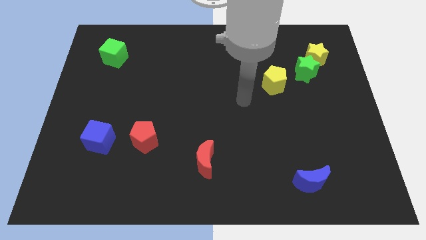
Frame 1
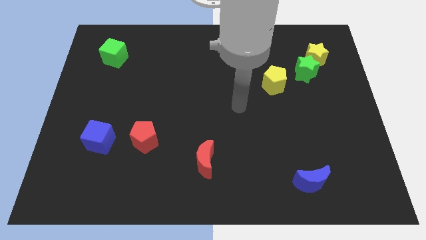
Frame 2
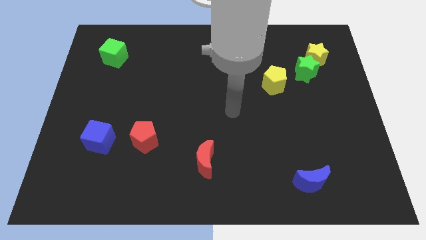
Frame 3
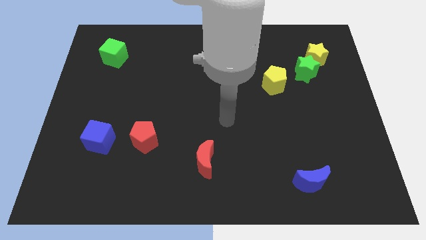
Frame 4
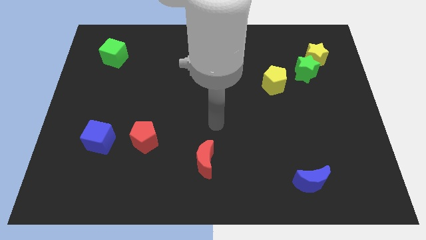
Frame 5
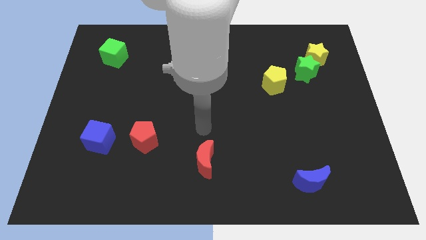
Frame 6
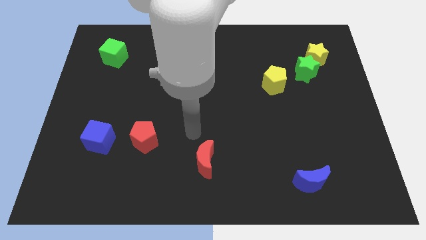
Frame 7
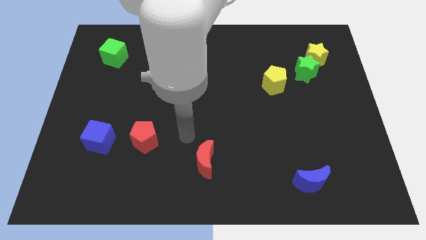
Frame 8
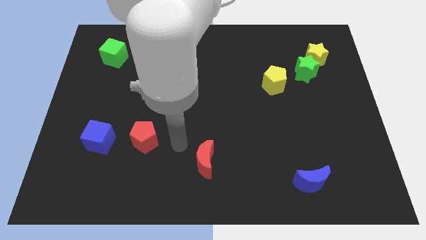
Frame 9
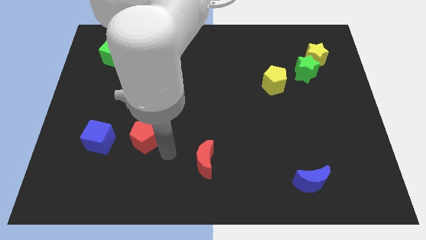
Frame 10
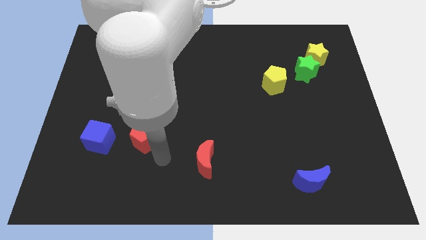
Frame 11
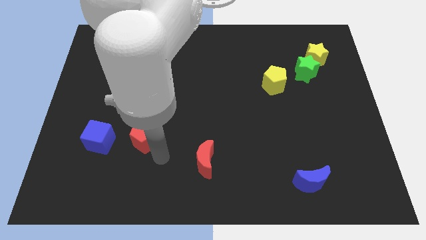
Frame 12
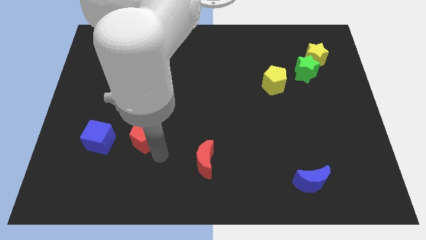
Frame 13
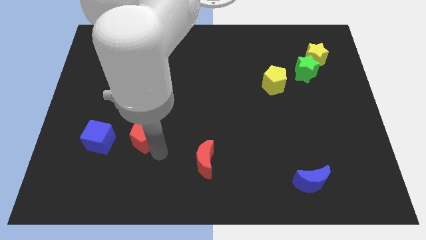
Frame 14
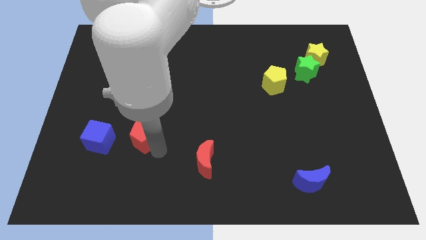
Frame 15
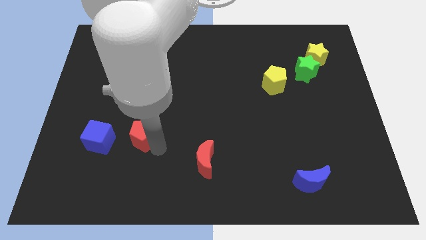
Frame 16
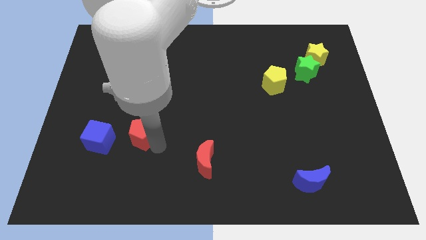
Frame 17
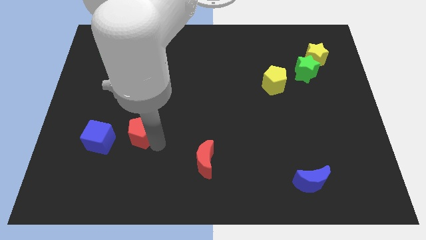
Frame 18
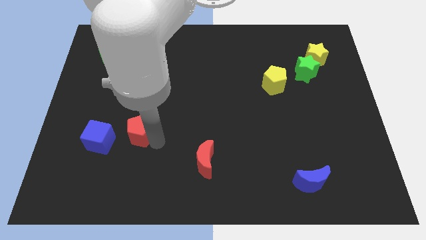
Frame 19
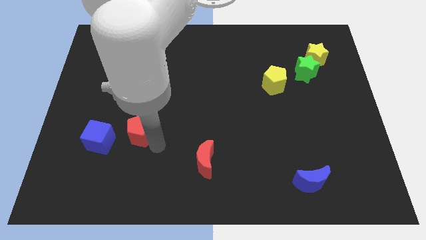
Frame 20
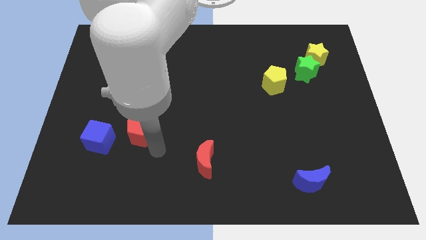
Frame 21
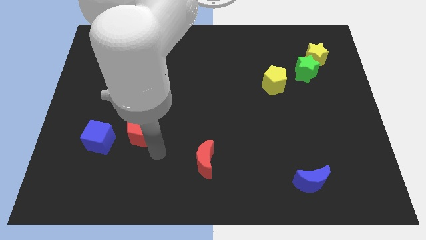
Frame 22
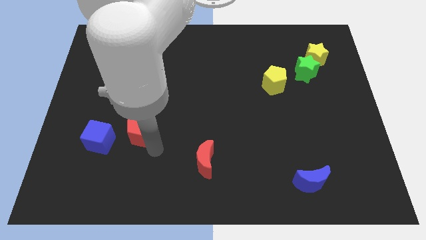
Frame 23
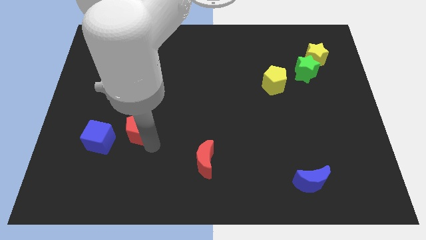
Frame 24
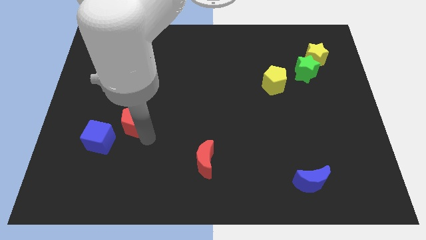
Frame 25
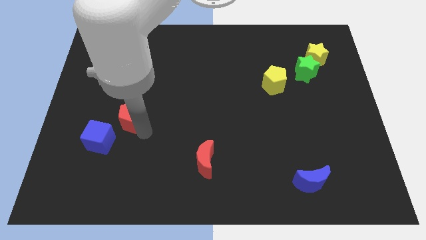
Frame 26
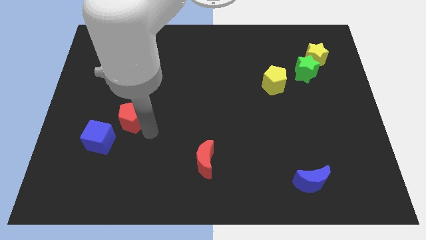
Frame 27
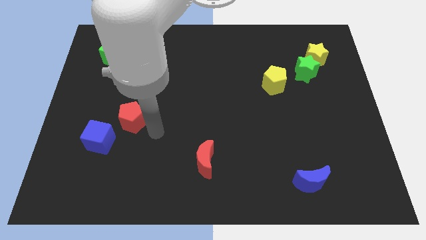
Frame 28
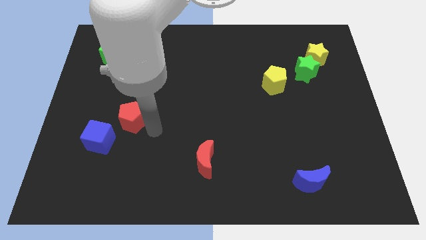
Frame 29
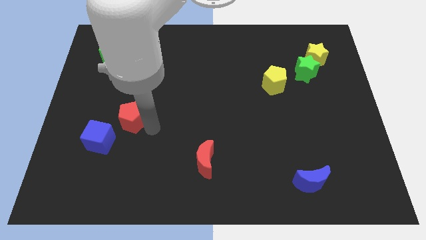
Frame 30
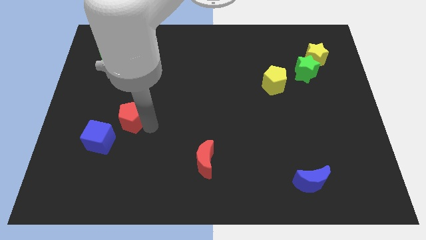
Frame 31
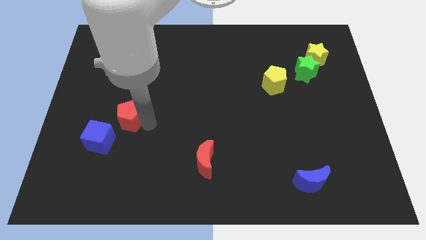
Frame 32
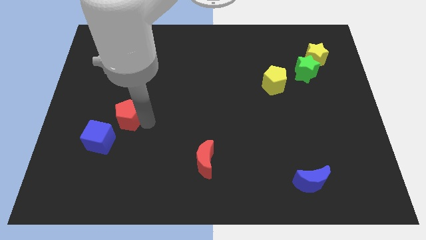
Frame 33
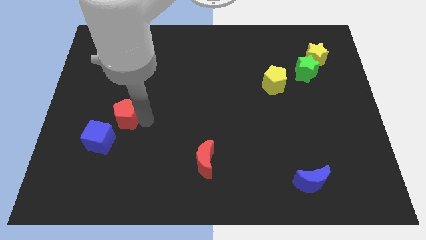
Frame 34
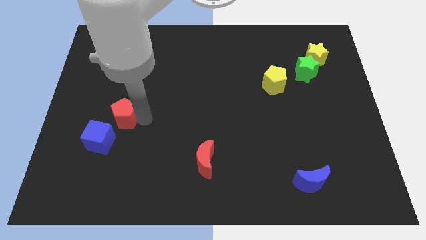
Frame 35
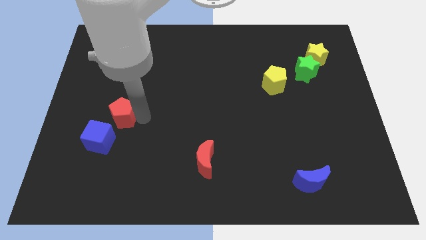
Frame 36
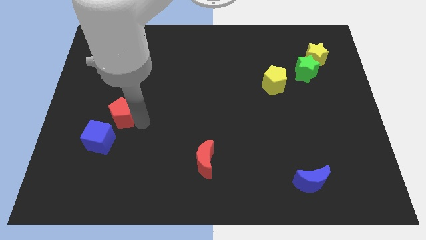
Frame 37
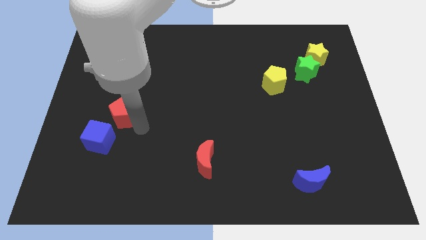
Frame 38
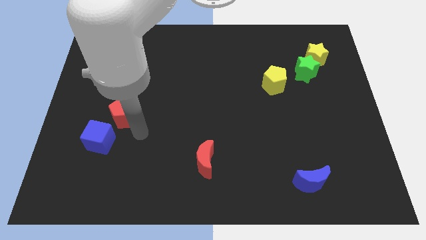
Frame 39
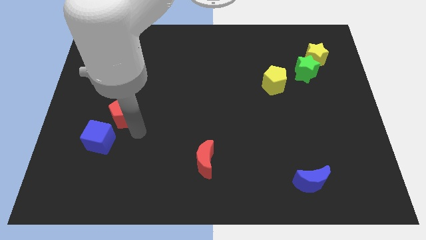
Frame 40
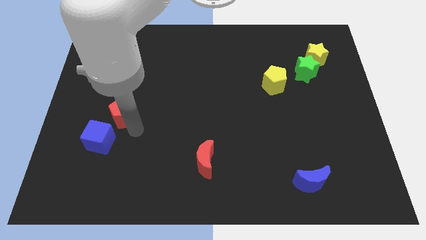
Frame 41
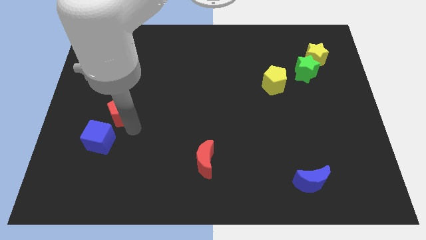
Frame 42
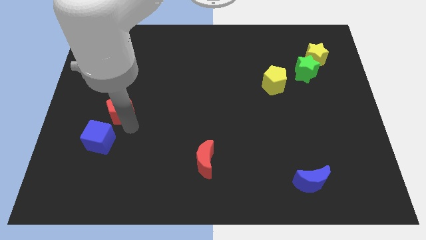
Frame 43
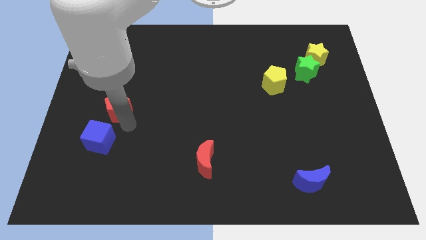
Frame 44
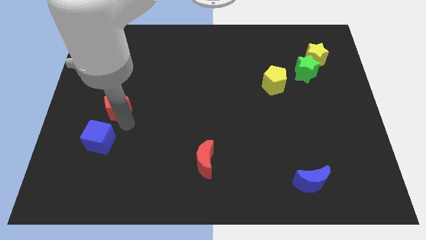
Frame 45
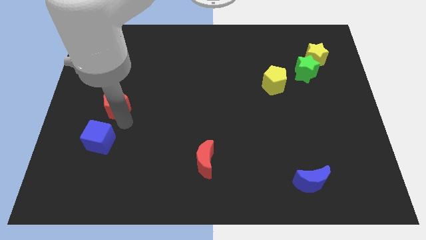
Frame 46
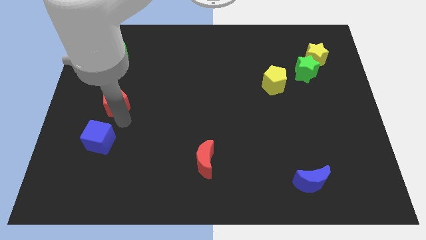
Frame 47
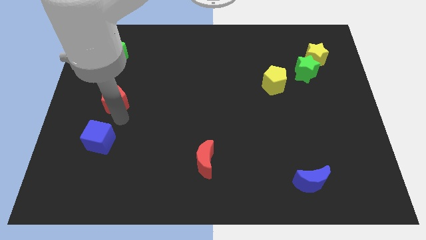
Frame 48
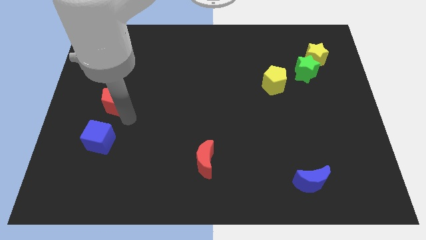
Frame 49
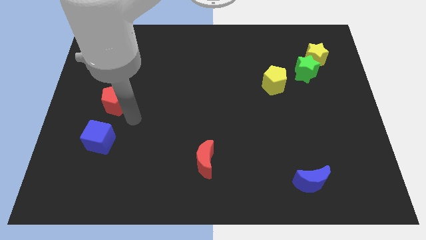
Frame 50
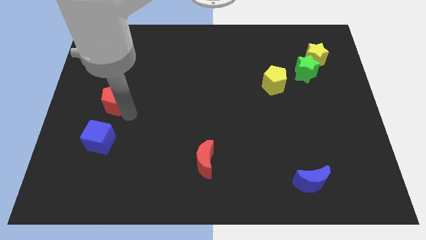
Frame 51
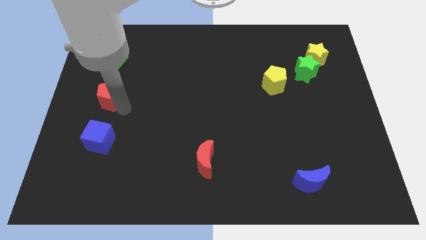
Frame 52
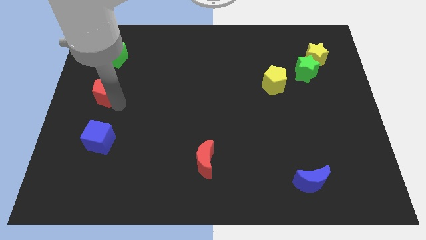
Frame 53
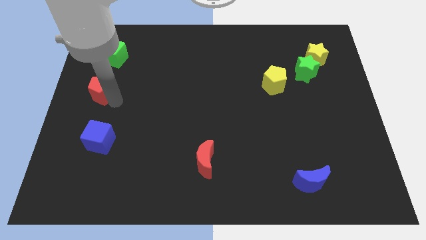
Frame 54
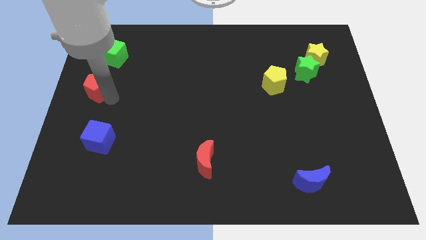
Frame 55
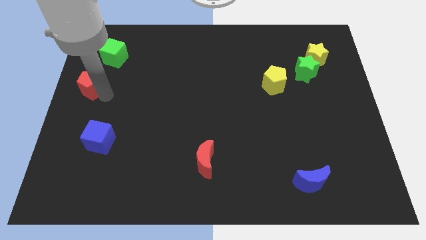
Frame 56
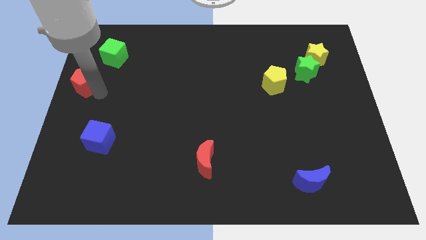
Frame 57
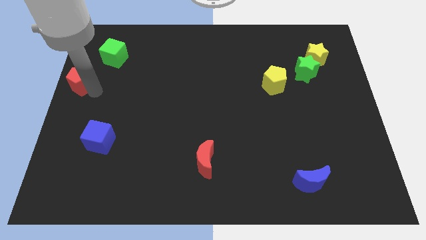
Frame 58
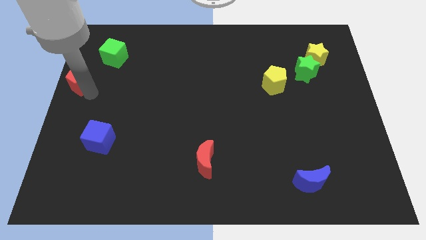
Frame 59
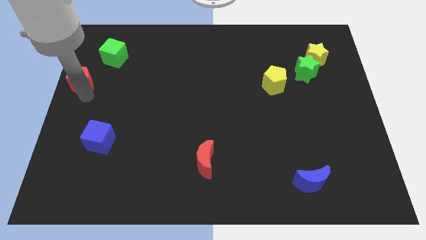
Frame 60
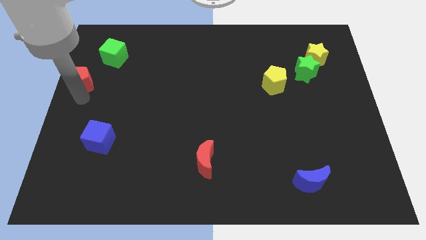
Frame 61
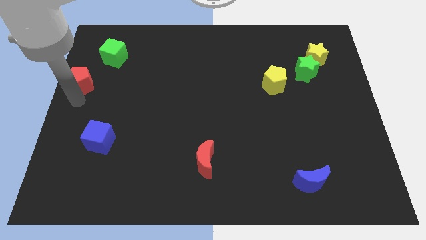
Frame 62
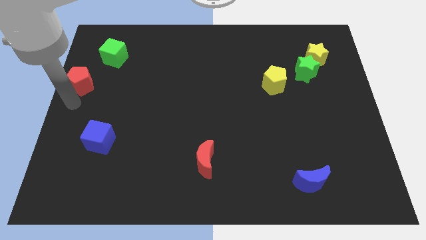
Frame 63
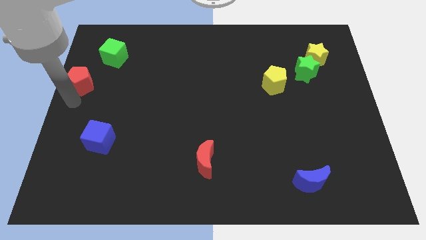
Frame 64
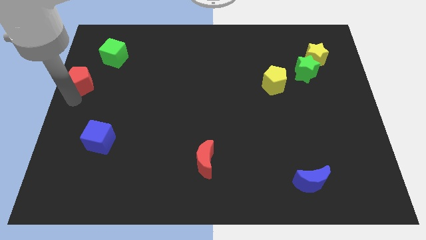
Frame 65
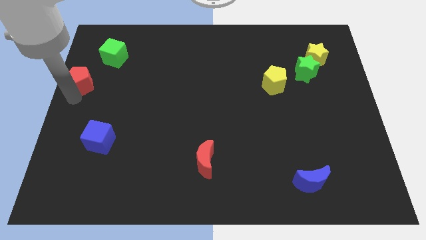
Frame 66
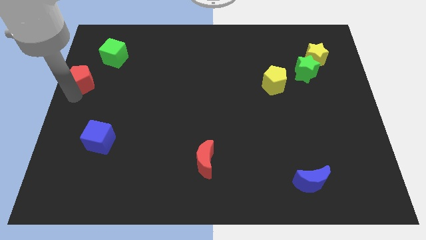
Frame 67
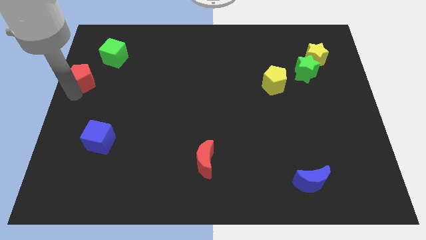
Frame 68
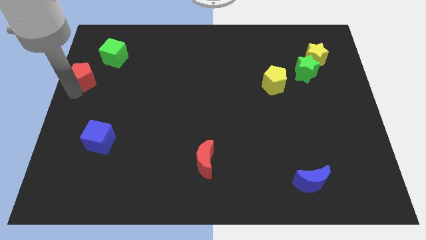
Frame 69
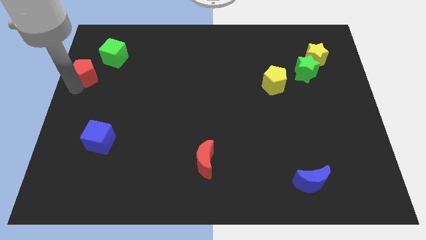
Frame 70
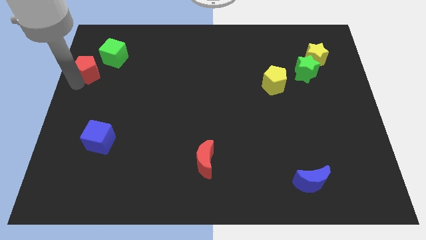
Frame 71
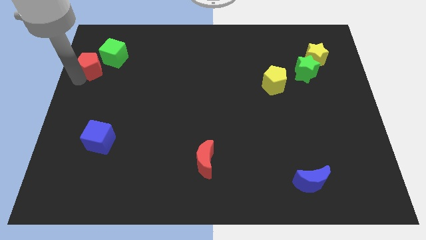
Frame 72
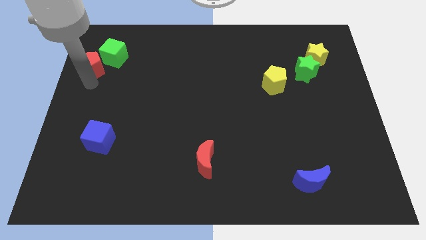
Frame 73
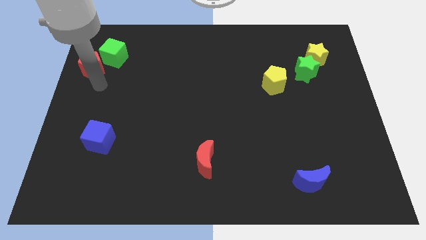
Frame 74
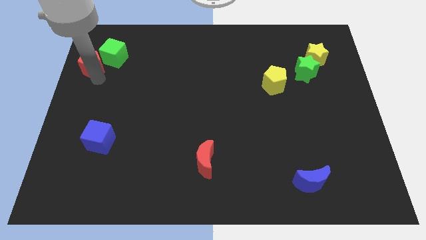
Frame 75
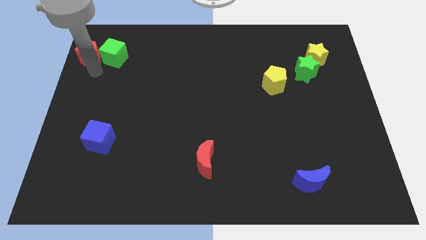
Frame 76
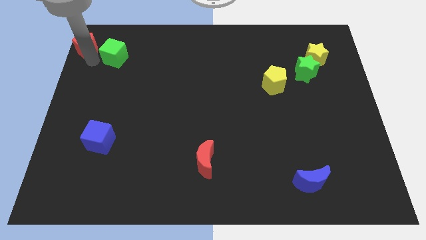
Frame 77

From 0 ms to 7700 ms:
slide the red pentagon to the top left
